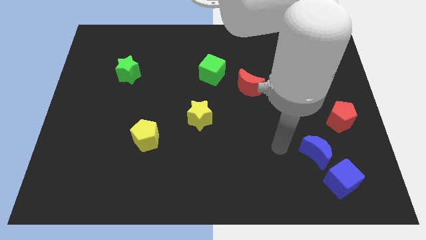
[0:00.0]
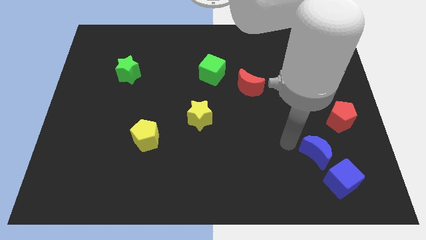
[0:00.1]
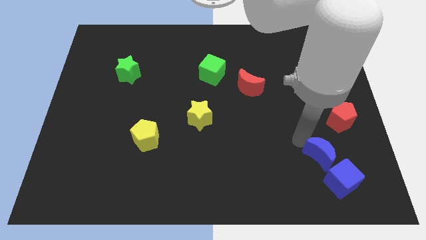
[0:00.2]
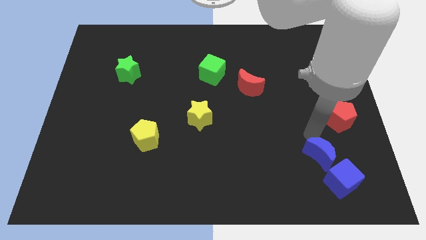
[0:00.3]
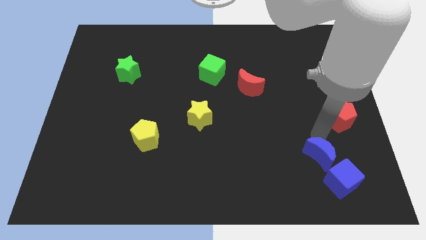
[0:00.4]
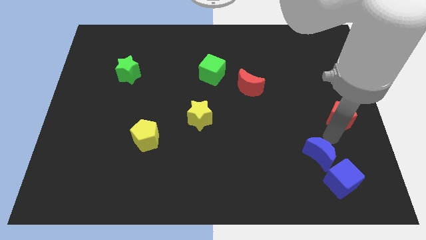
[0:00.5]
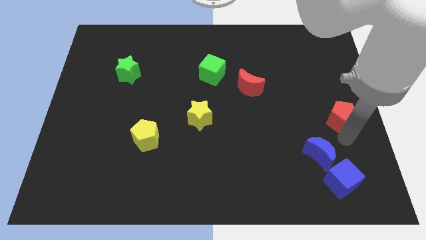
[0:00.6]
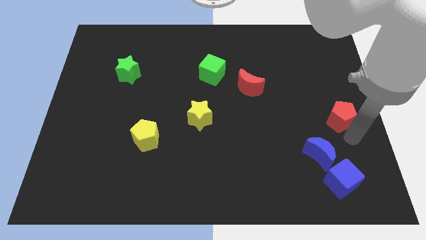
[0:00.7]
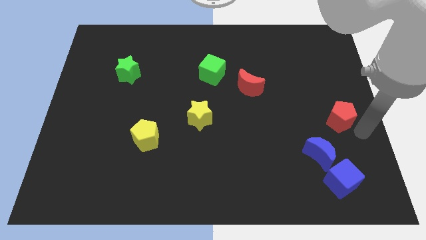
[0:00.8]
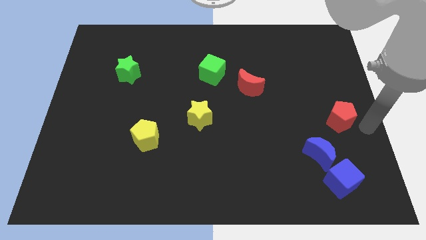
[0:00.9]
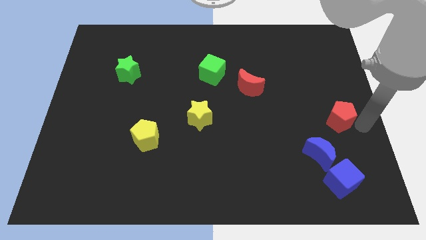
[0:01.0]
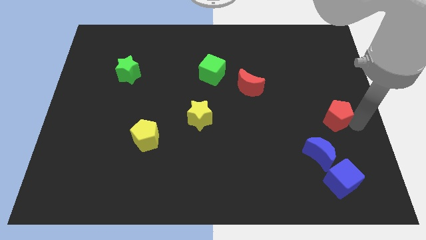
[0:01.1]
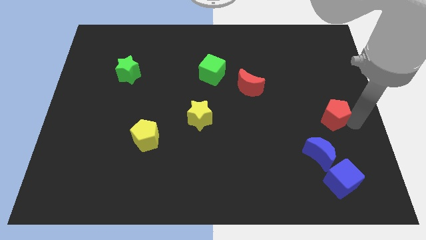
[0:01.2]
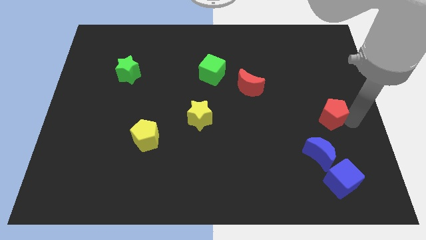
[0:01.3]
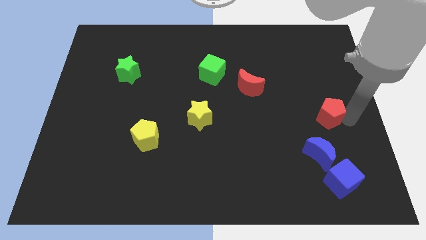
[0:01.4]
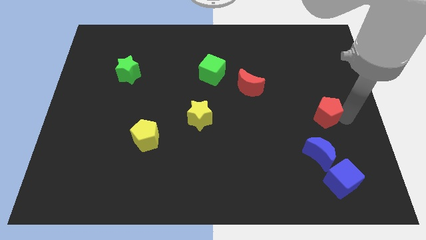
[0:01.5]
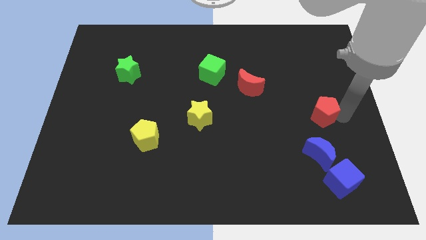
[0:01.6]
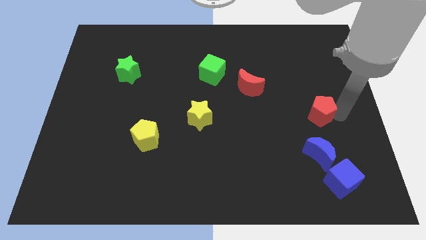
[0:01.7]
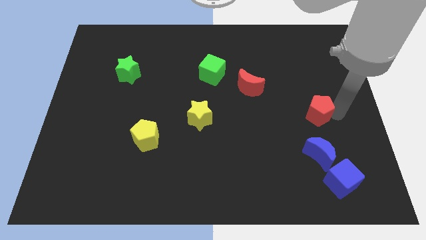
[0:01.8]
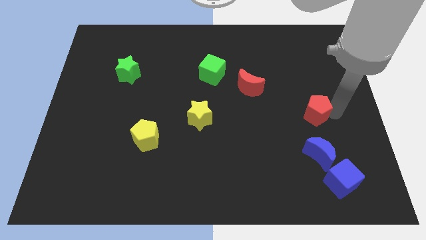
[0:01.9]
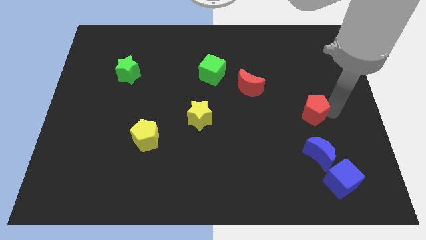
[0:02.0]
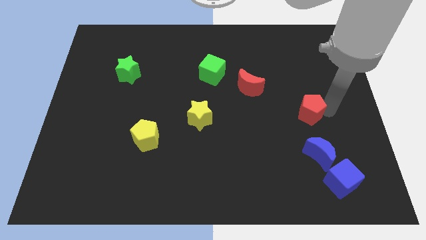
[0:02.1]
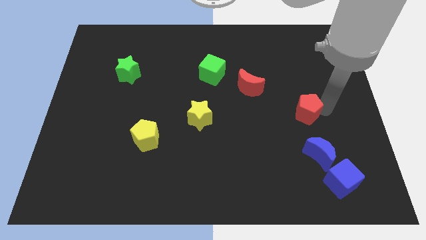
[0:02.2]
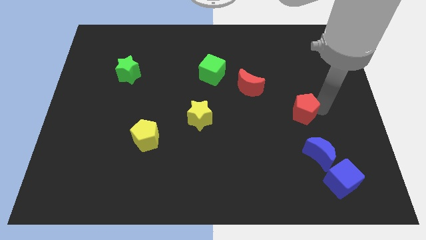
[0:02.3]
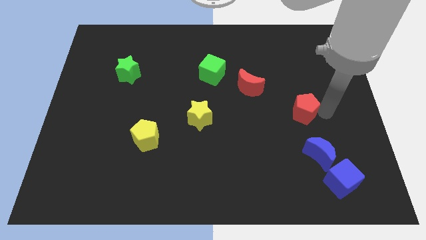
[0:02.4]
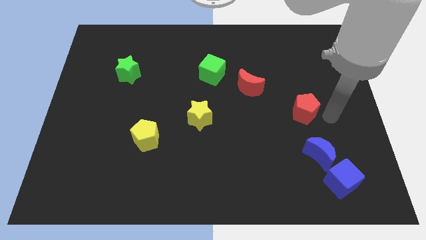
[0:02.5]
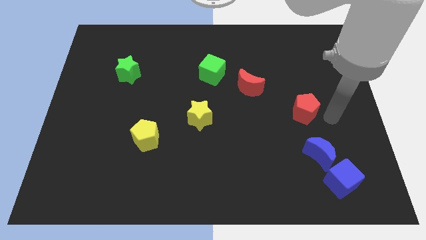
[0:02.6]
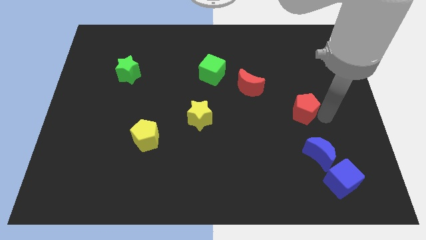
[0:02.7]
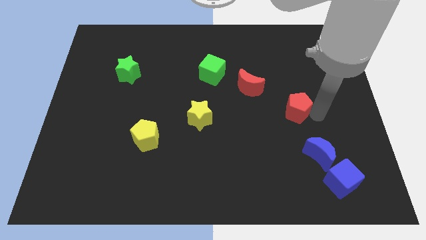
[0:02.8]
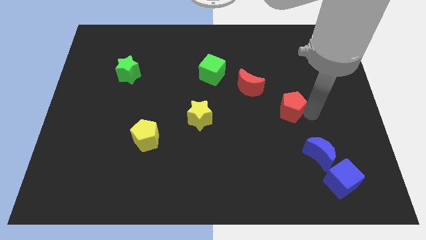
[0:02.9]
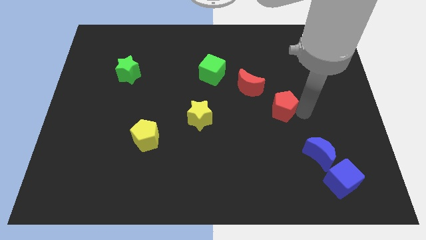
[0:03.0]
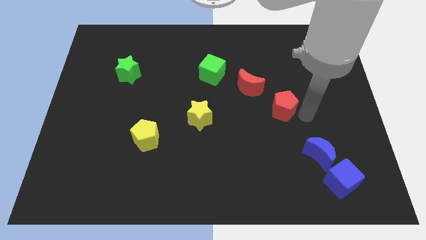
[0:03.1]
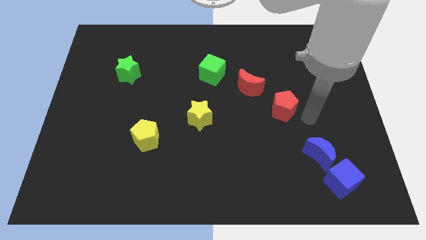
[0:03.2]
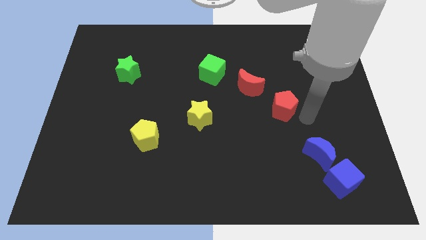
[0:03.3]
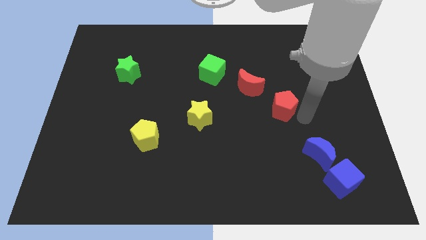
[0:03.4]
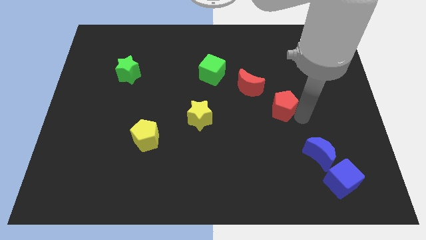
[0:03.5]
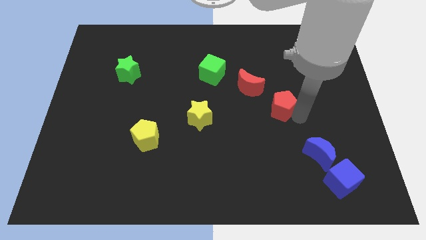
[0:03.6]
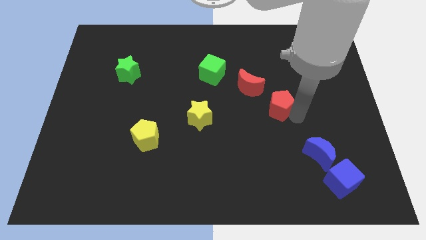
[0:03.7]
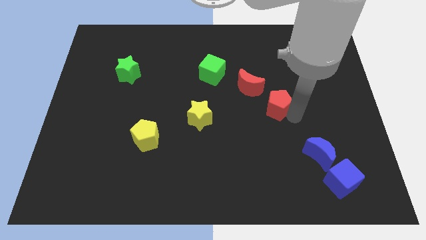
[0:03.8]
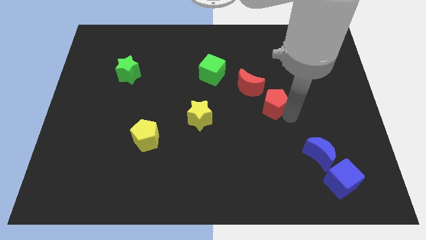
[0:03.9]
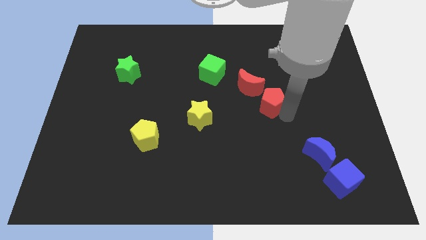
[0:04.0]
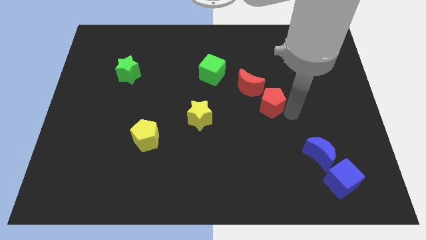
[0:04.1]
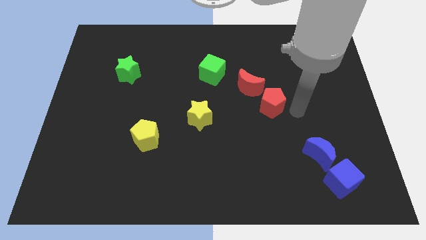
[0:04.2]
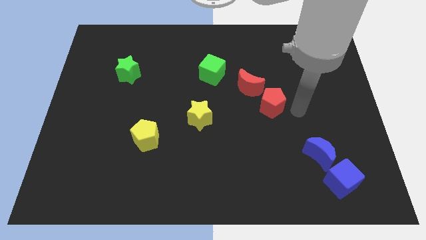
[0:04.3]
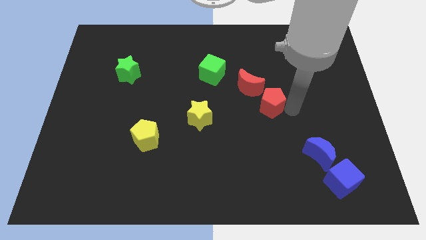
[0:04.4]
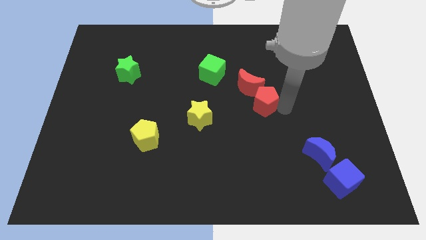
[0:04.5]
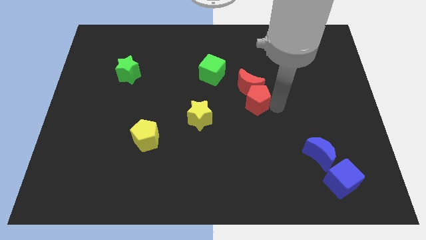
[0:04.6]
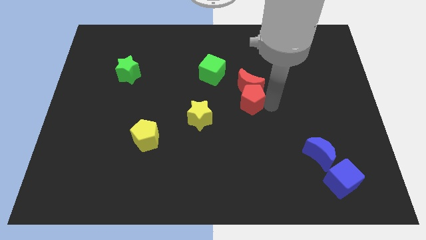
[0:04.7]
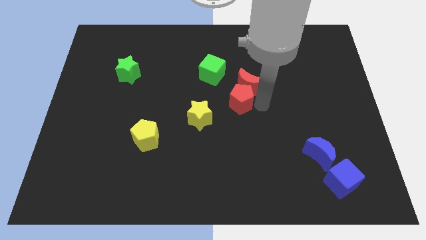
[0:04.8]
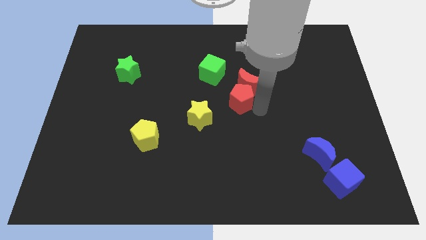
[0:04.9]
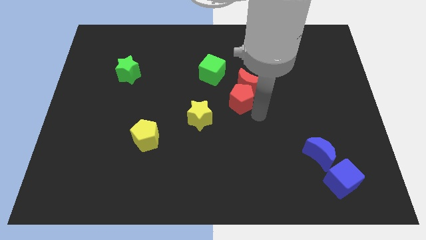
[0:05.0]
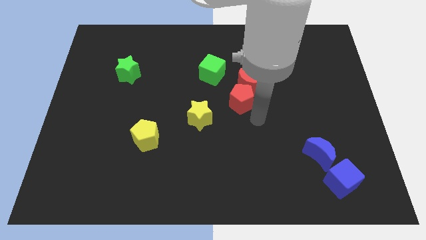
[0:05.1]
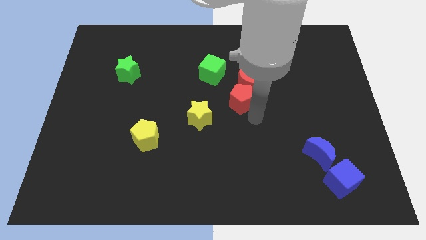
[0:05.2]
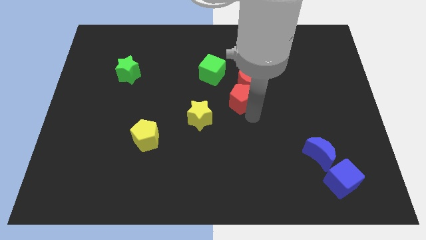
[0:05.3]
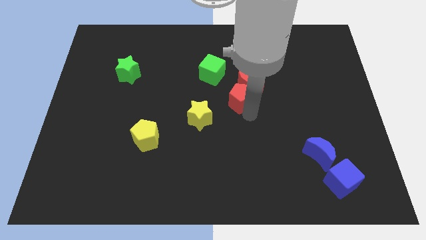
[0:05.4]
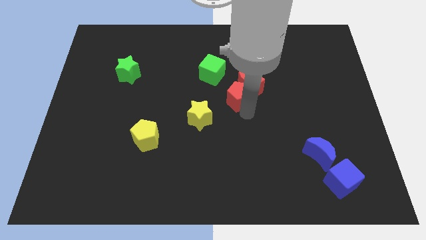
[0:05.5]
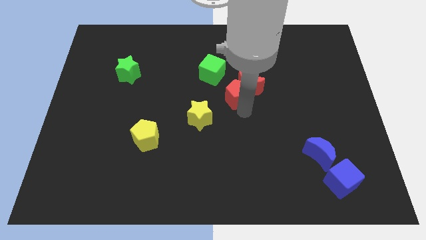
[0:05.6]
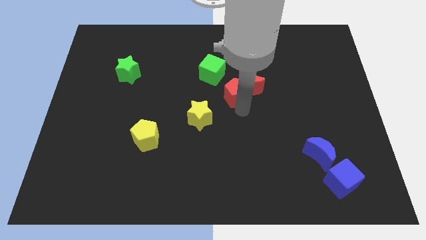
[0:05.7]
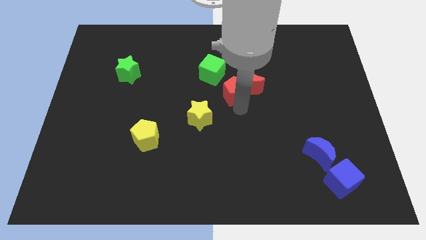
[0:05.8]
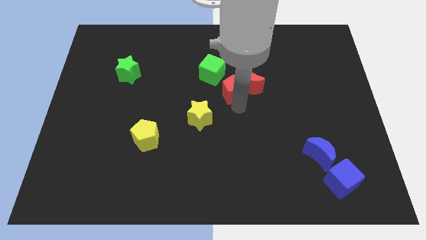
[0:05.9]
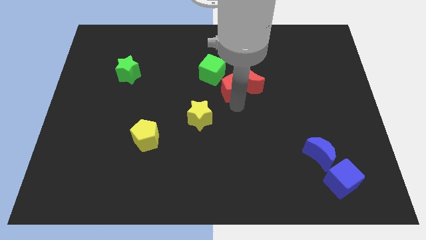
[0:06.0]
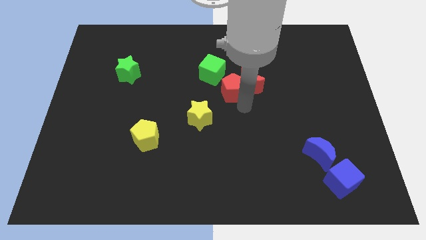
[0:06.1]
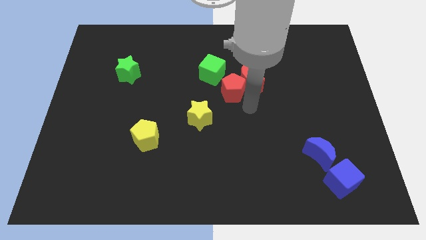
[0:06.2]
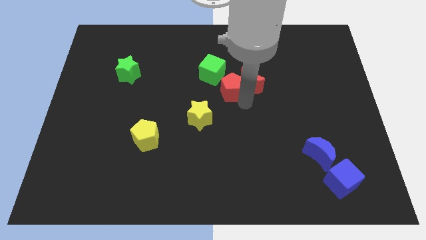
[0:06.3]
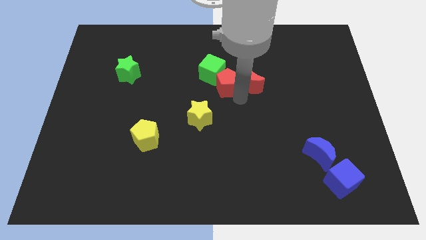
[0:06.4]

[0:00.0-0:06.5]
slide the red pentagon to the green cube

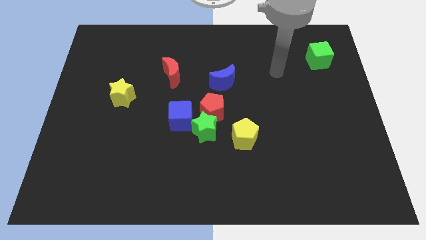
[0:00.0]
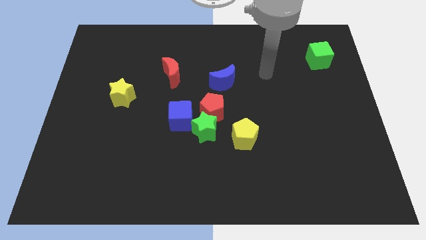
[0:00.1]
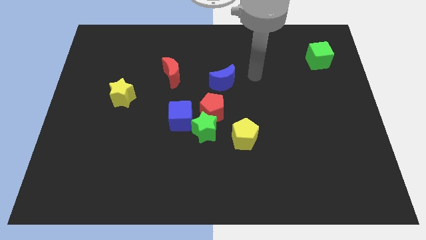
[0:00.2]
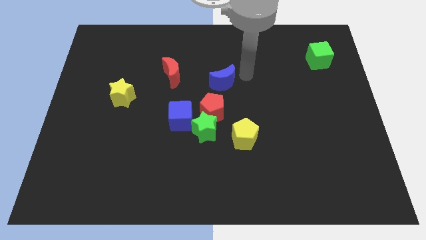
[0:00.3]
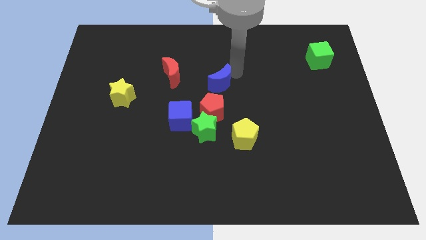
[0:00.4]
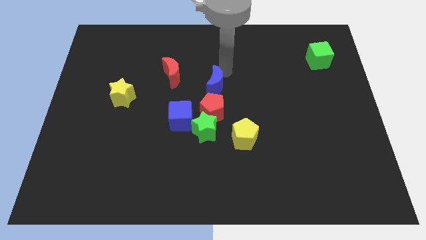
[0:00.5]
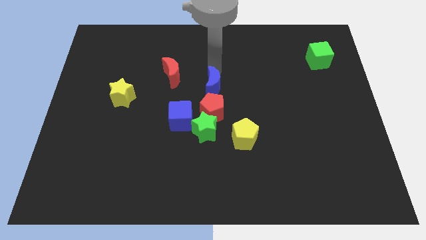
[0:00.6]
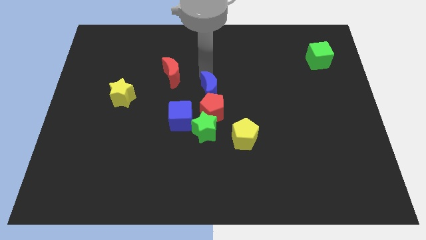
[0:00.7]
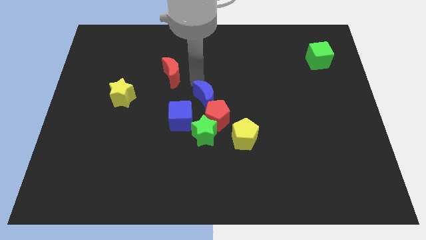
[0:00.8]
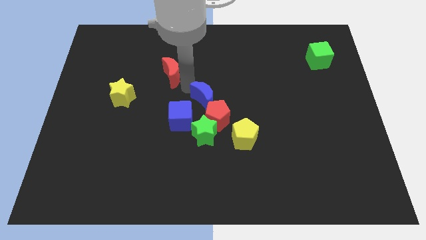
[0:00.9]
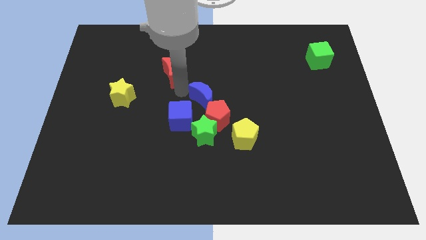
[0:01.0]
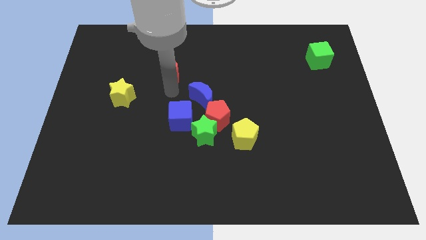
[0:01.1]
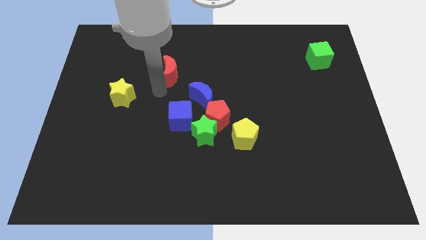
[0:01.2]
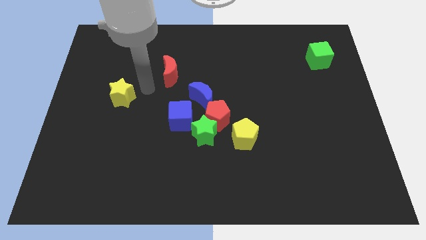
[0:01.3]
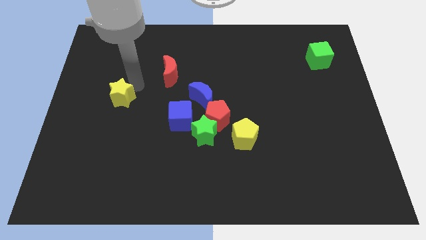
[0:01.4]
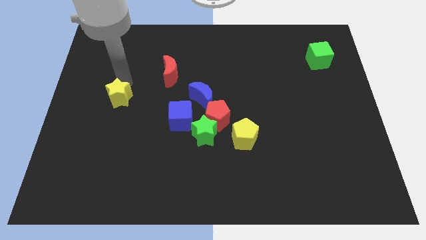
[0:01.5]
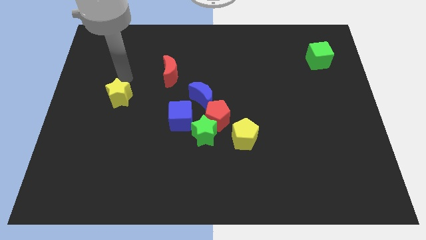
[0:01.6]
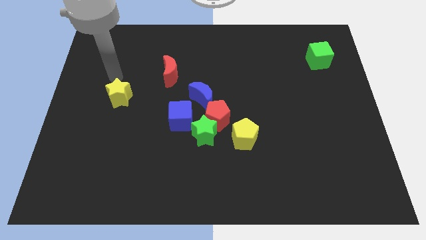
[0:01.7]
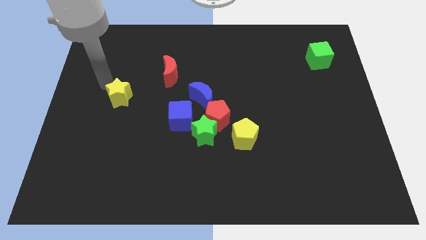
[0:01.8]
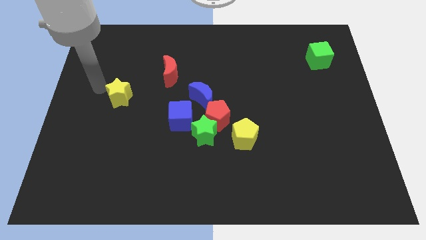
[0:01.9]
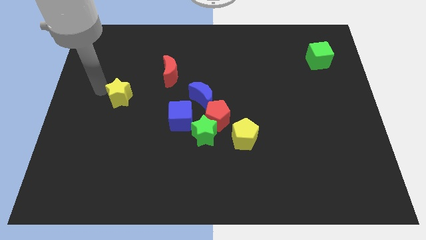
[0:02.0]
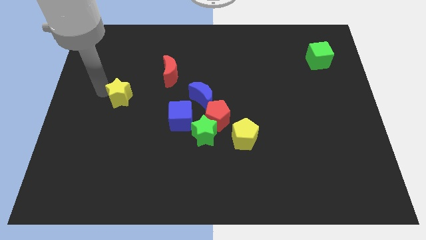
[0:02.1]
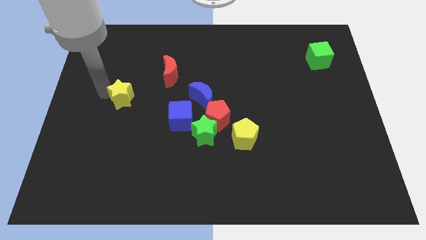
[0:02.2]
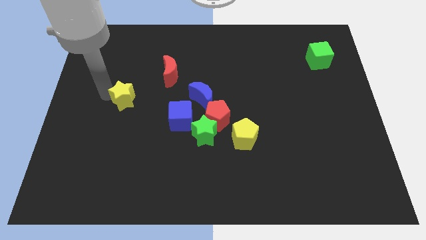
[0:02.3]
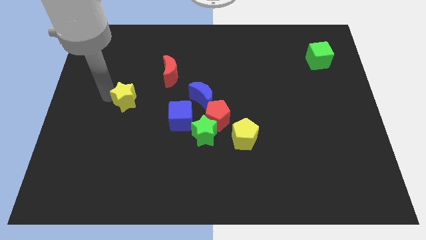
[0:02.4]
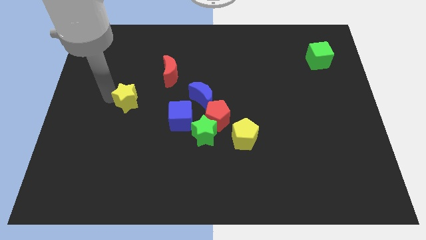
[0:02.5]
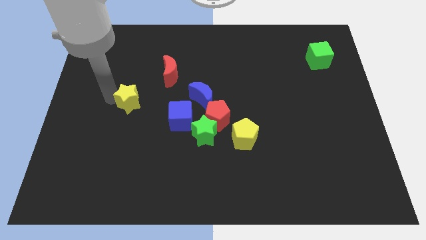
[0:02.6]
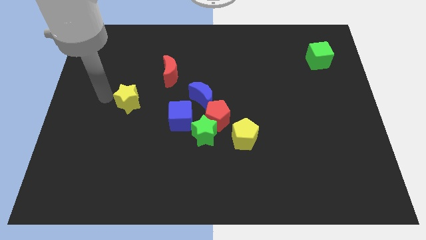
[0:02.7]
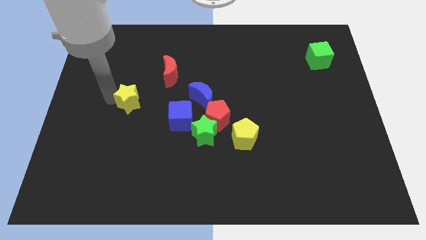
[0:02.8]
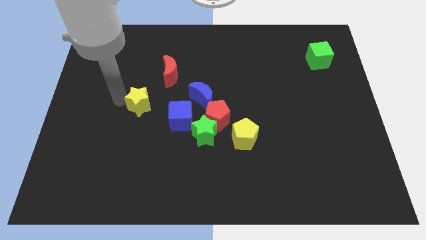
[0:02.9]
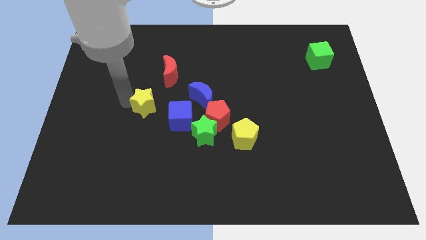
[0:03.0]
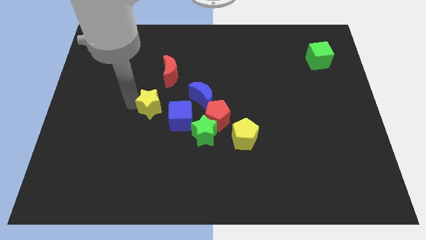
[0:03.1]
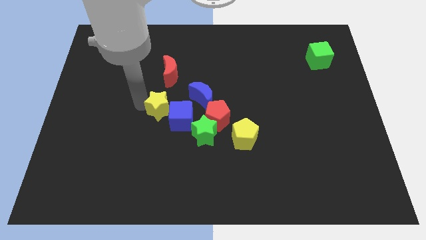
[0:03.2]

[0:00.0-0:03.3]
put the yellow star next to the blue cube
